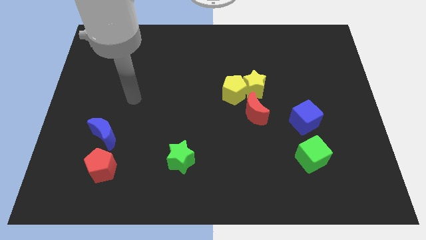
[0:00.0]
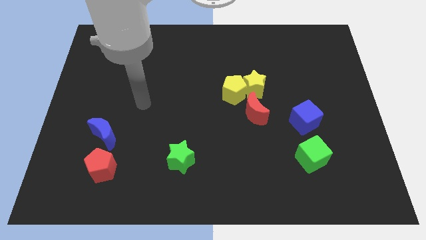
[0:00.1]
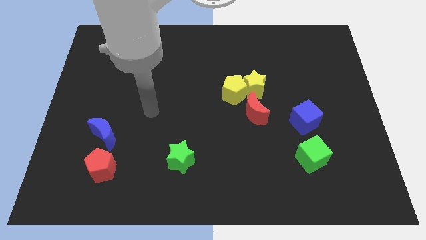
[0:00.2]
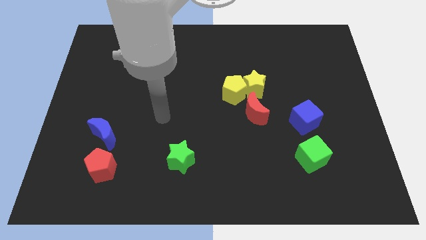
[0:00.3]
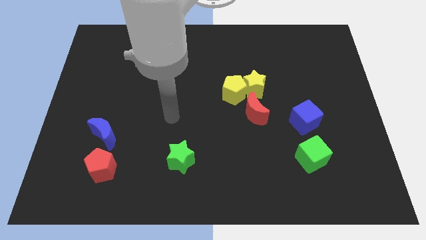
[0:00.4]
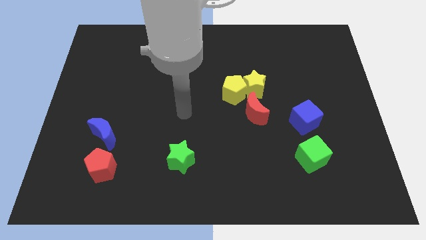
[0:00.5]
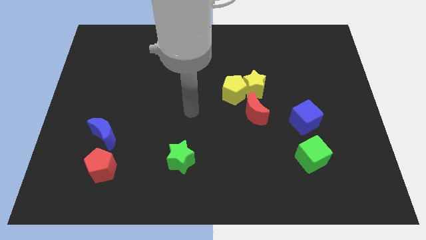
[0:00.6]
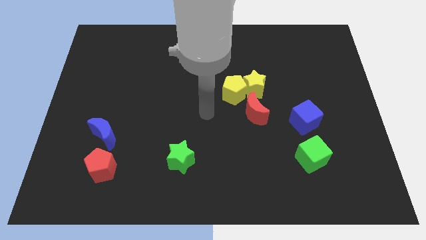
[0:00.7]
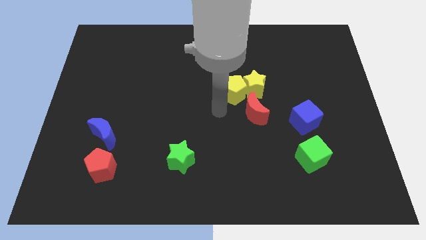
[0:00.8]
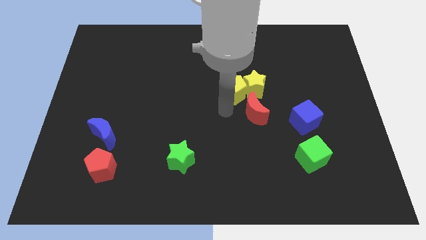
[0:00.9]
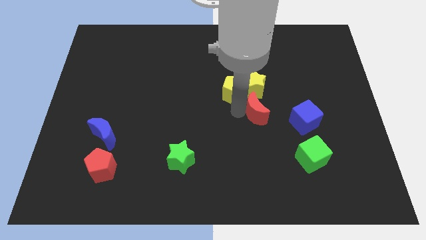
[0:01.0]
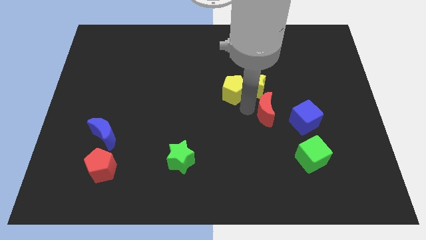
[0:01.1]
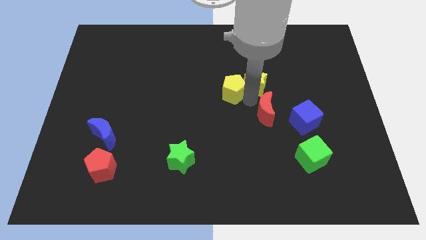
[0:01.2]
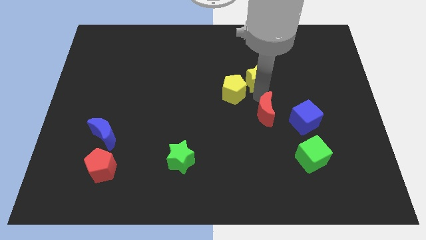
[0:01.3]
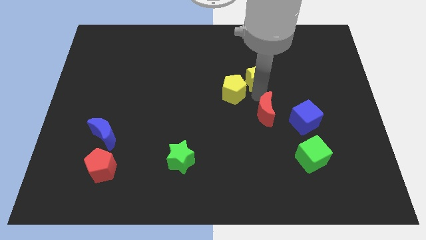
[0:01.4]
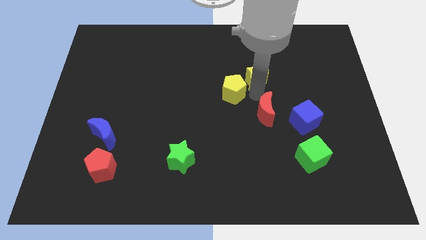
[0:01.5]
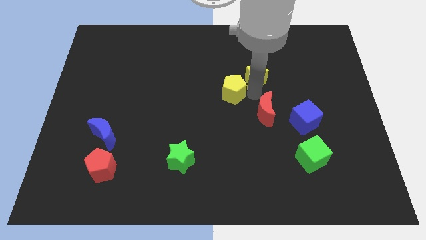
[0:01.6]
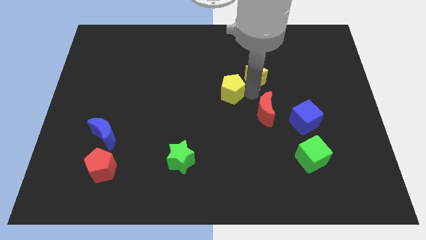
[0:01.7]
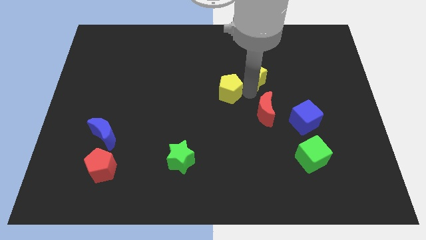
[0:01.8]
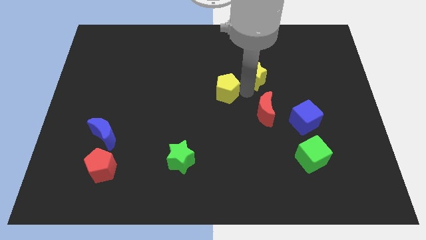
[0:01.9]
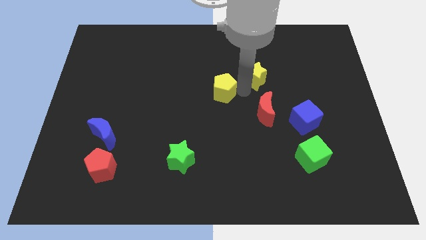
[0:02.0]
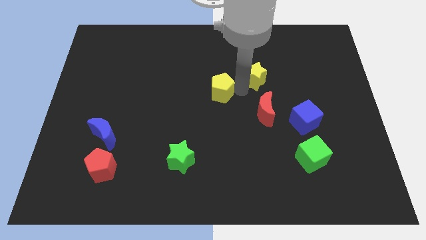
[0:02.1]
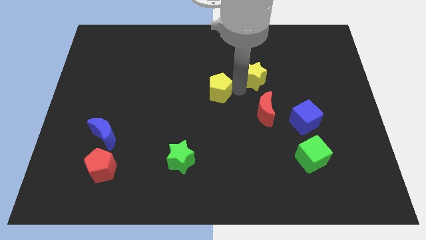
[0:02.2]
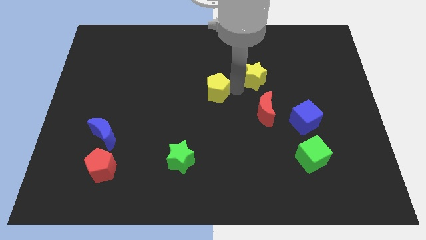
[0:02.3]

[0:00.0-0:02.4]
pull the yellow pentagon apart from the yellow star and red moon

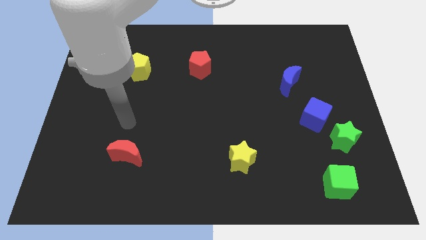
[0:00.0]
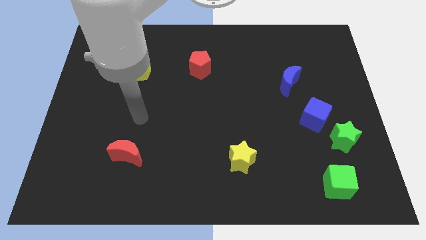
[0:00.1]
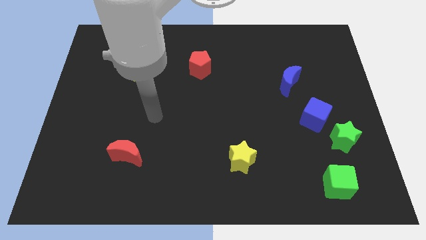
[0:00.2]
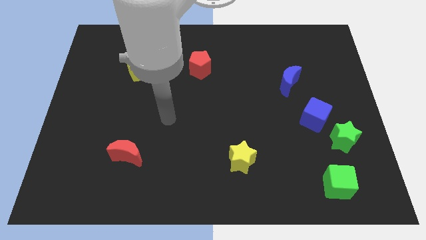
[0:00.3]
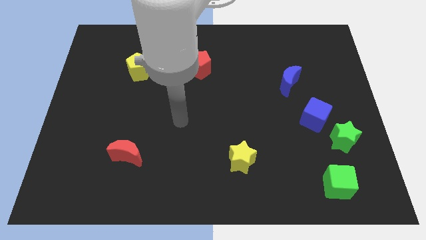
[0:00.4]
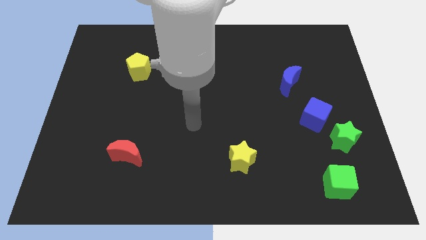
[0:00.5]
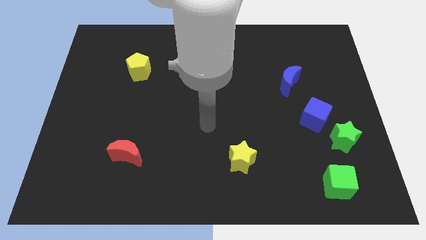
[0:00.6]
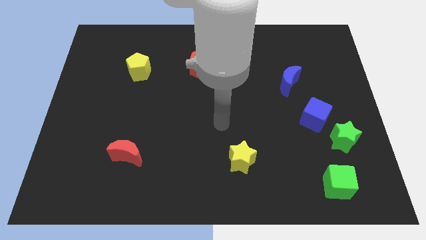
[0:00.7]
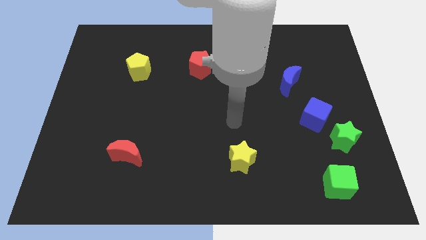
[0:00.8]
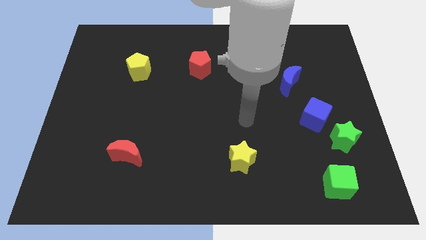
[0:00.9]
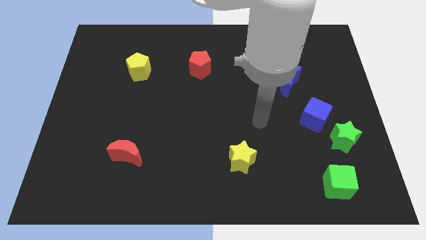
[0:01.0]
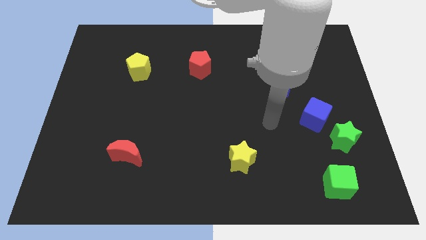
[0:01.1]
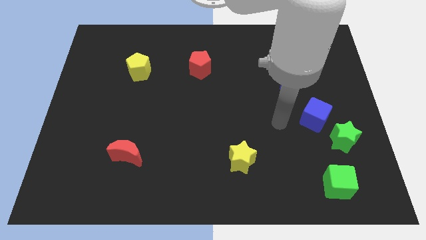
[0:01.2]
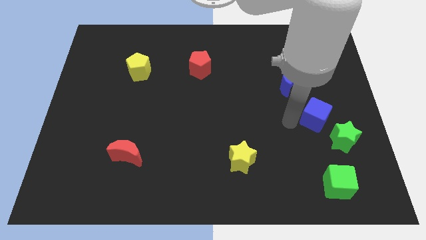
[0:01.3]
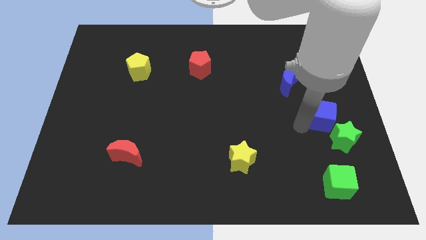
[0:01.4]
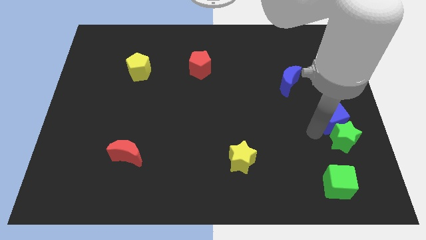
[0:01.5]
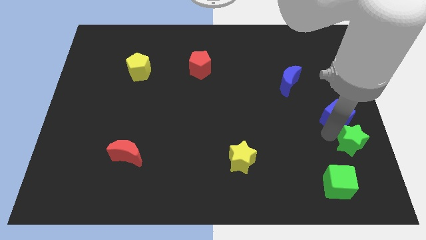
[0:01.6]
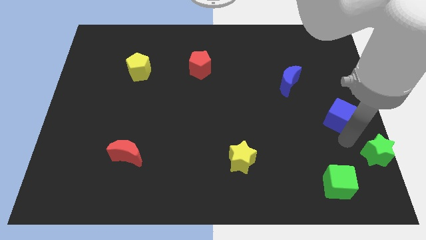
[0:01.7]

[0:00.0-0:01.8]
move the blue cube away from the green star

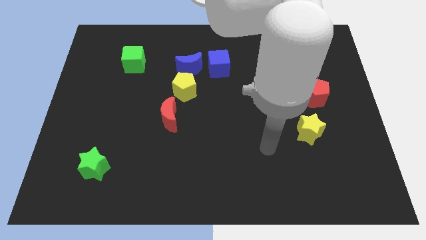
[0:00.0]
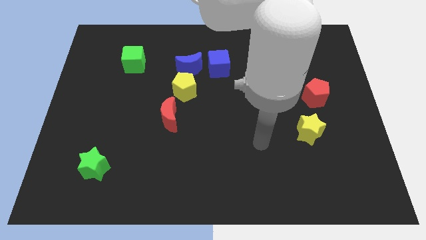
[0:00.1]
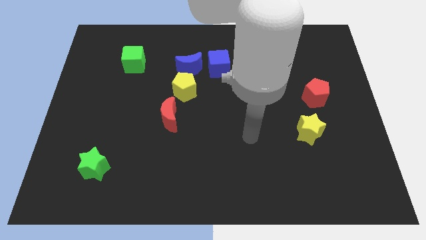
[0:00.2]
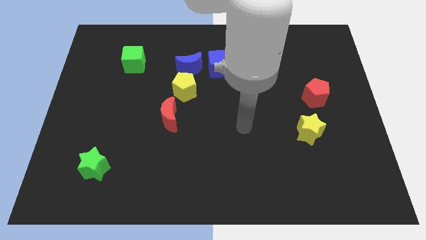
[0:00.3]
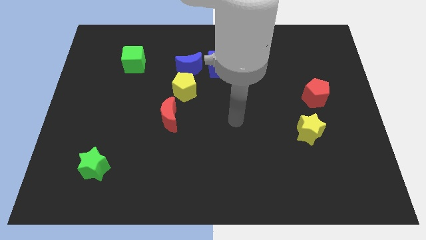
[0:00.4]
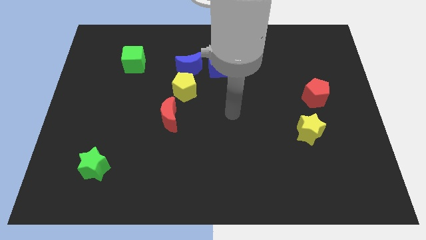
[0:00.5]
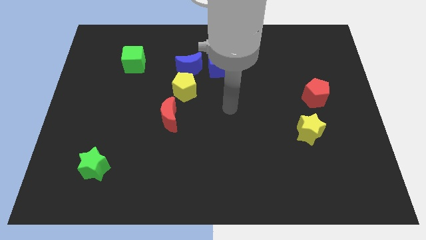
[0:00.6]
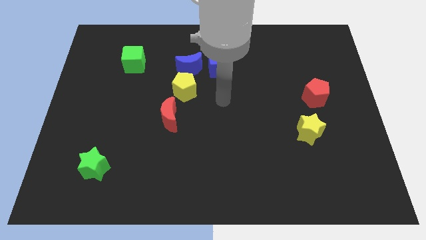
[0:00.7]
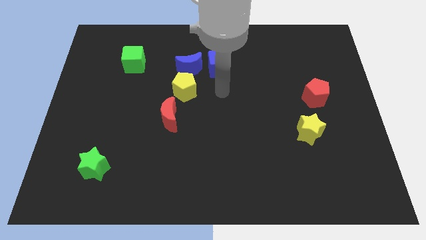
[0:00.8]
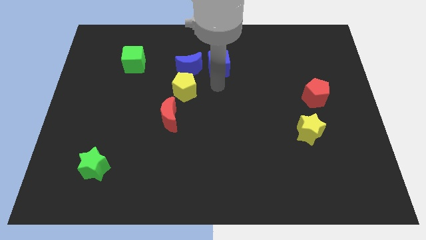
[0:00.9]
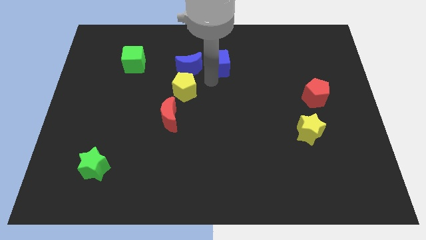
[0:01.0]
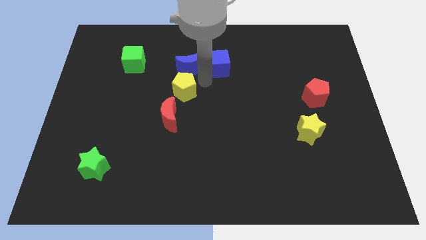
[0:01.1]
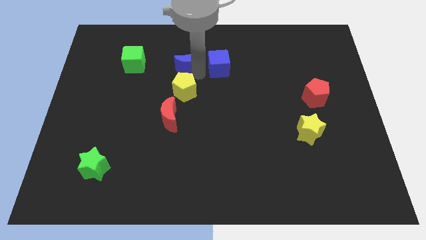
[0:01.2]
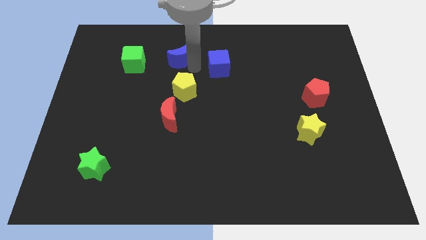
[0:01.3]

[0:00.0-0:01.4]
separate the blue cube from the blue moon

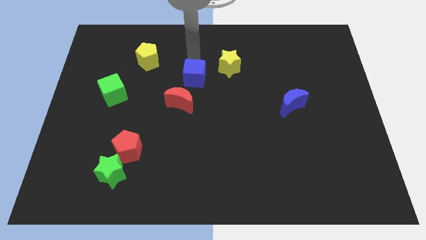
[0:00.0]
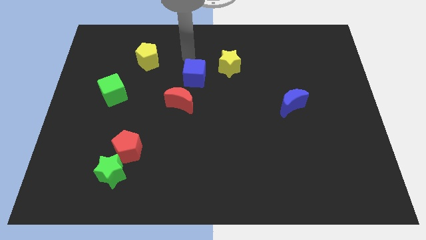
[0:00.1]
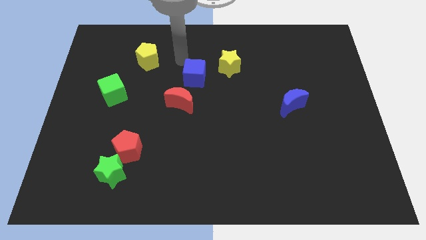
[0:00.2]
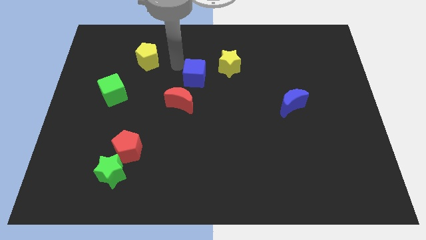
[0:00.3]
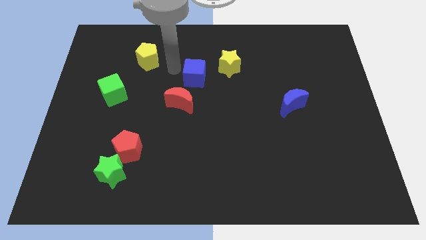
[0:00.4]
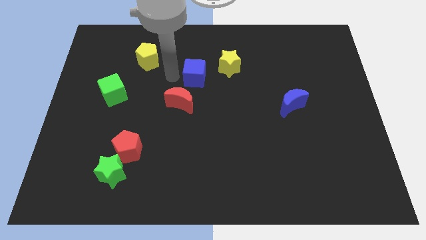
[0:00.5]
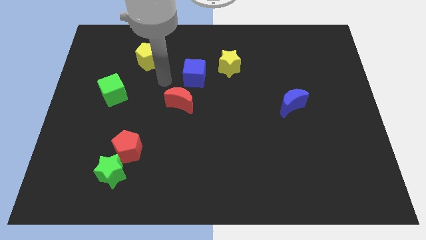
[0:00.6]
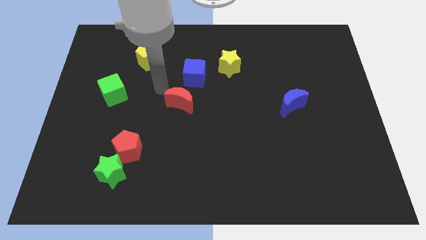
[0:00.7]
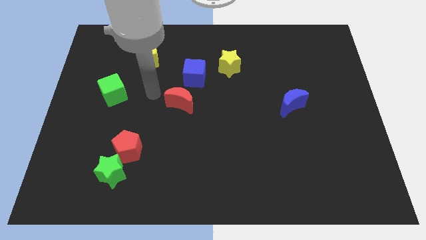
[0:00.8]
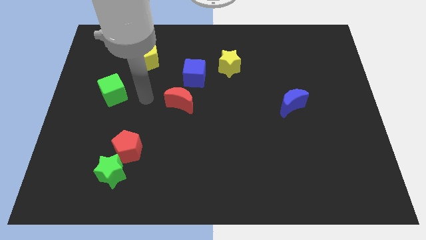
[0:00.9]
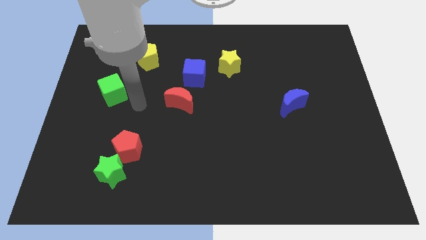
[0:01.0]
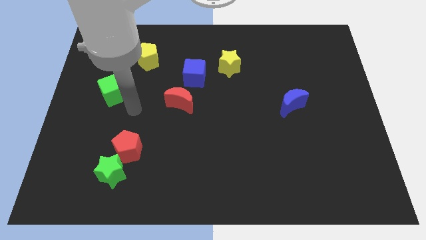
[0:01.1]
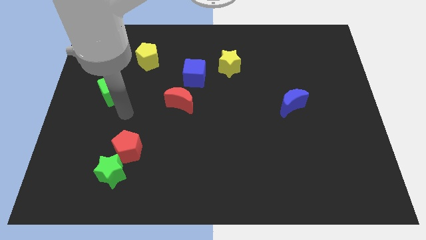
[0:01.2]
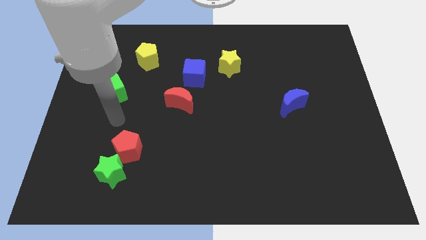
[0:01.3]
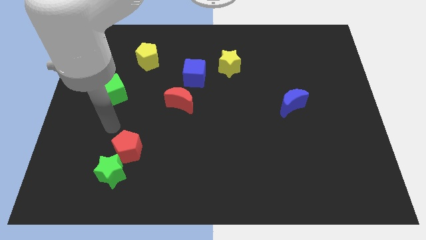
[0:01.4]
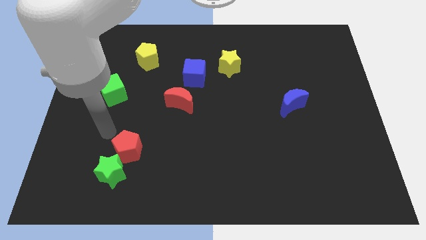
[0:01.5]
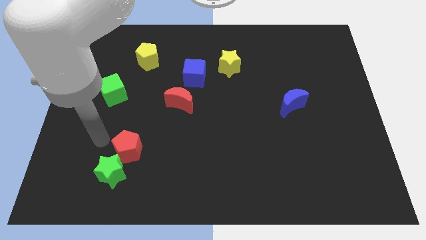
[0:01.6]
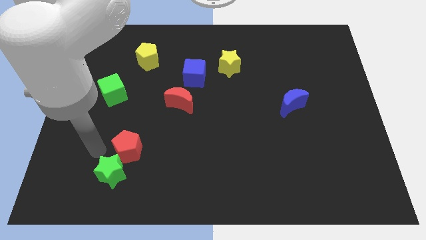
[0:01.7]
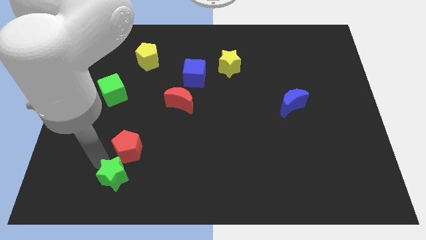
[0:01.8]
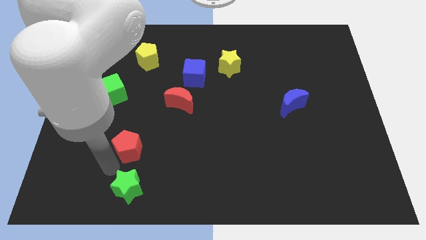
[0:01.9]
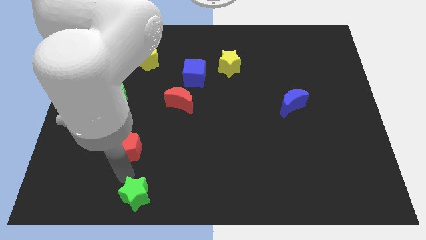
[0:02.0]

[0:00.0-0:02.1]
pull the red pentagon apart from the green star

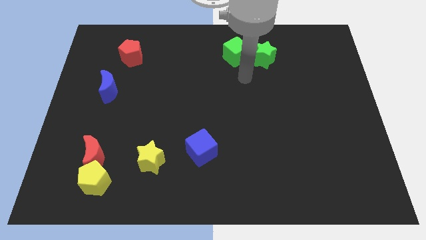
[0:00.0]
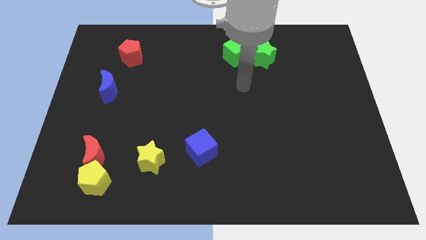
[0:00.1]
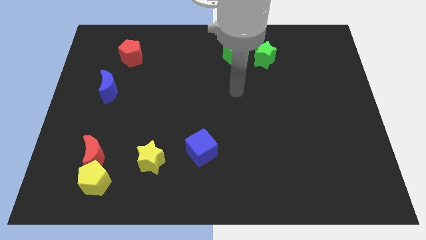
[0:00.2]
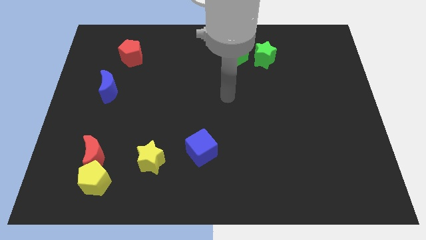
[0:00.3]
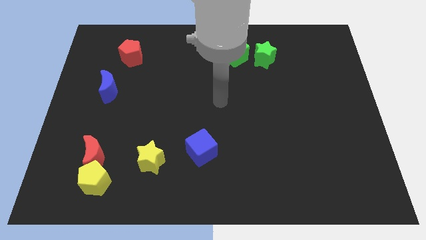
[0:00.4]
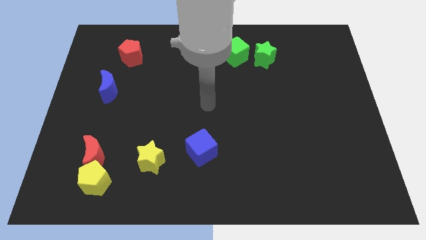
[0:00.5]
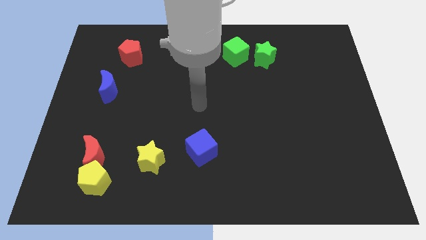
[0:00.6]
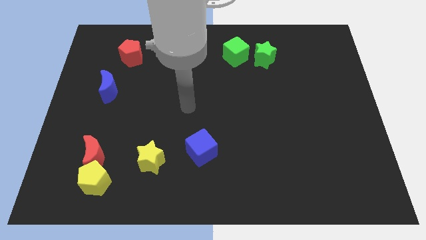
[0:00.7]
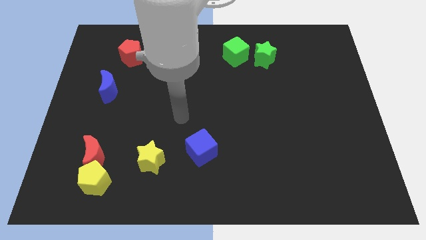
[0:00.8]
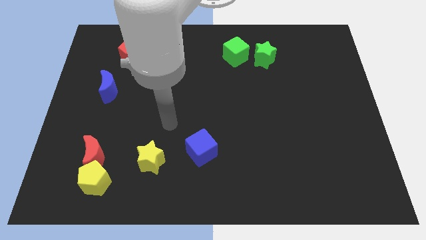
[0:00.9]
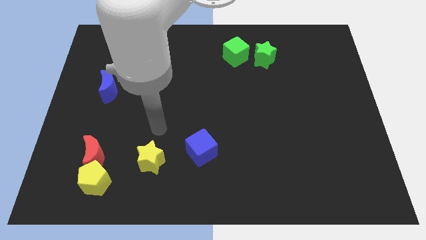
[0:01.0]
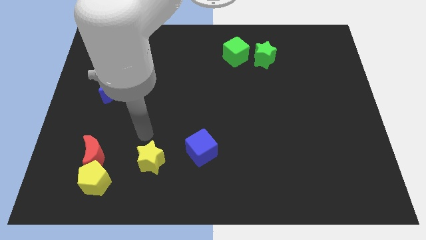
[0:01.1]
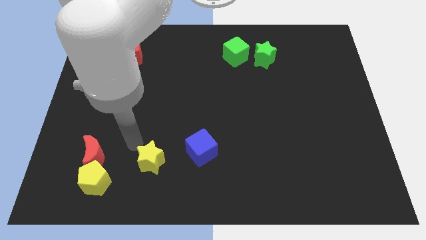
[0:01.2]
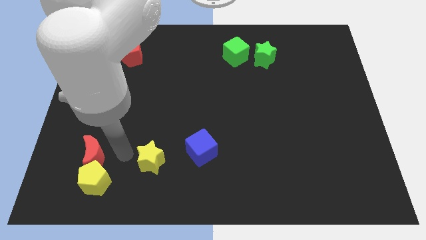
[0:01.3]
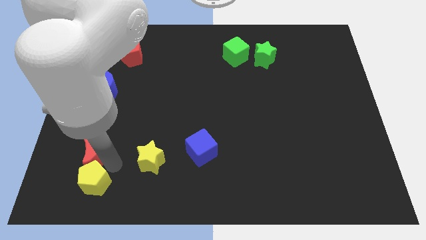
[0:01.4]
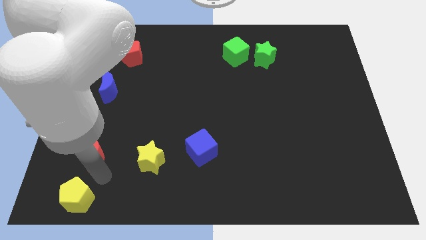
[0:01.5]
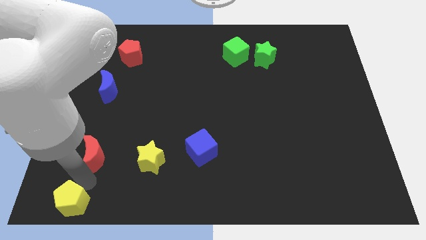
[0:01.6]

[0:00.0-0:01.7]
separate the red moon from the yellow pentagon
